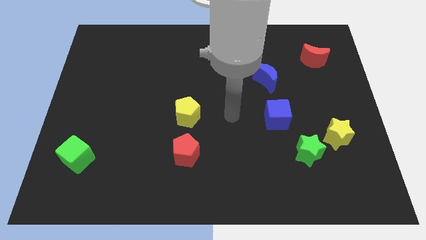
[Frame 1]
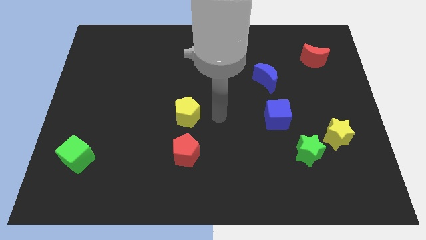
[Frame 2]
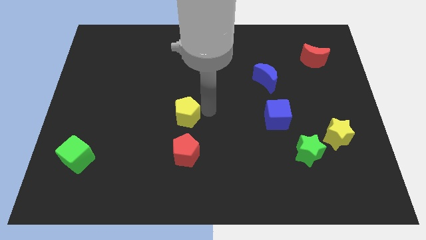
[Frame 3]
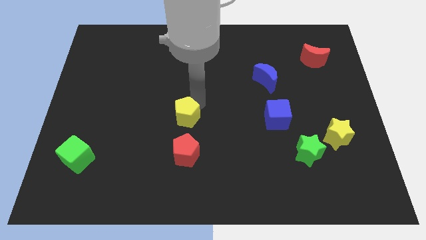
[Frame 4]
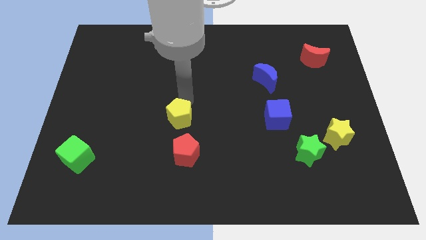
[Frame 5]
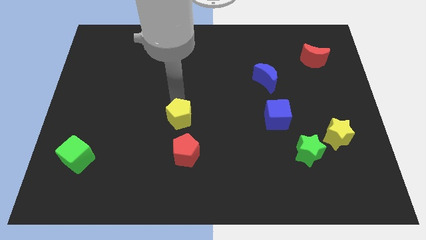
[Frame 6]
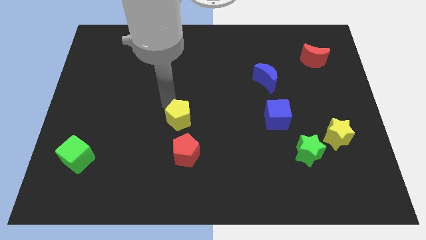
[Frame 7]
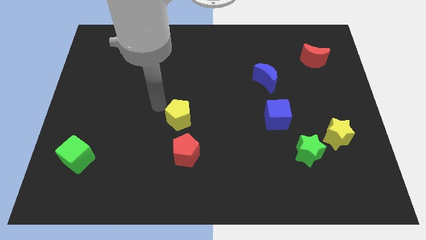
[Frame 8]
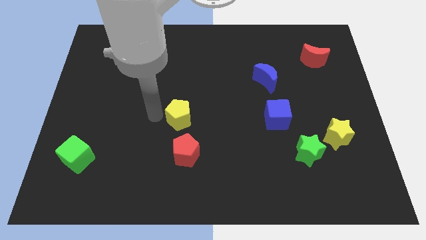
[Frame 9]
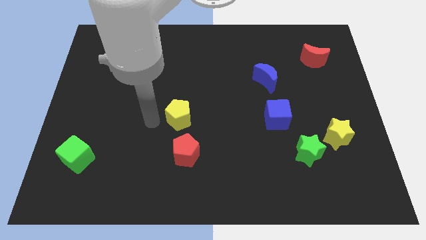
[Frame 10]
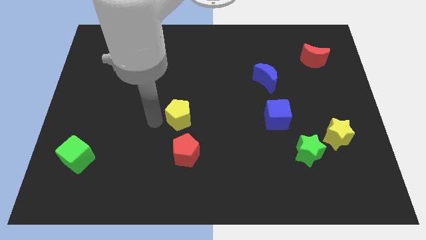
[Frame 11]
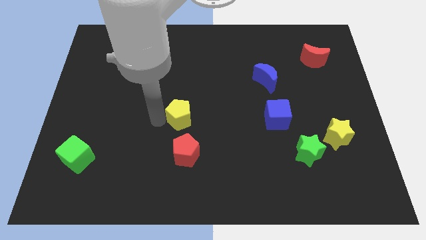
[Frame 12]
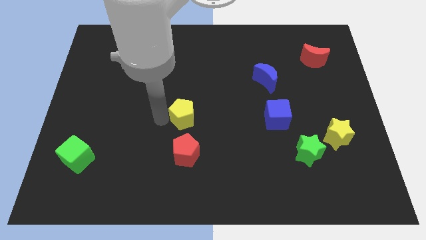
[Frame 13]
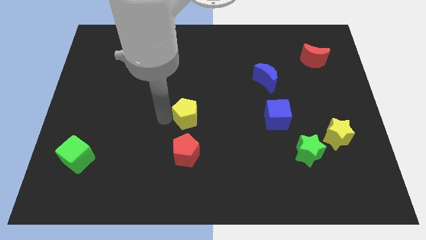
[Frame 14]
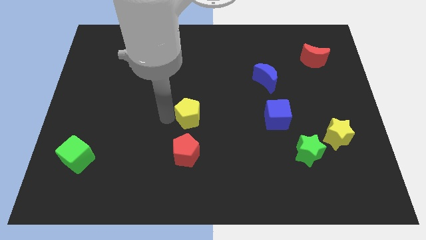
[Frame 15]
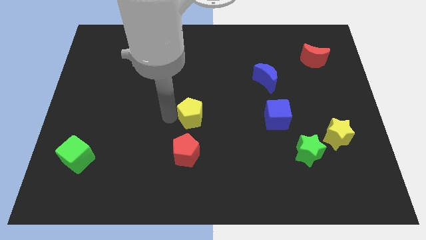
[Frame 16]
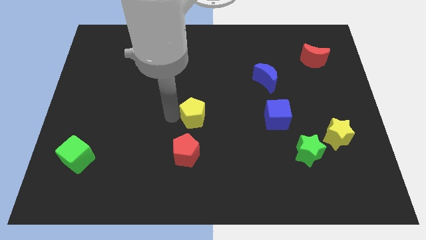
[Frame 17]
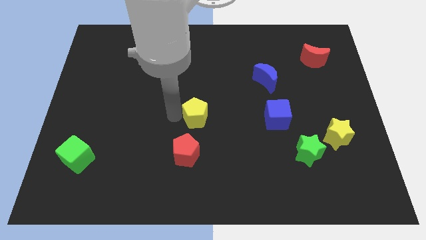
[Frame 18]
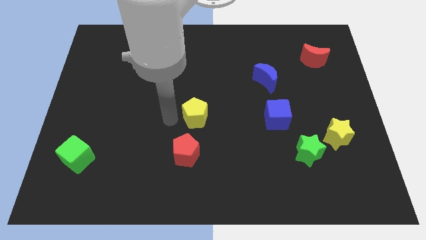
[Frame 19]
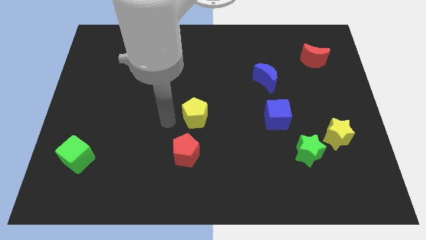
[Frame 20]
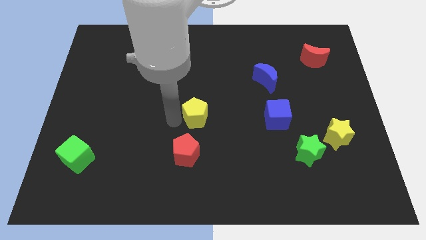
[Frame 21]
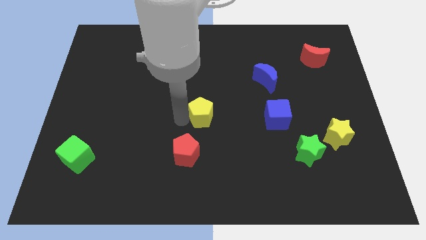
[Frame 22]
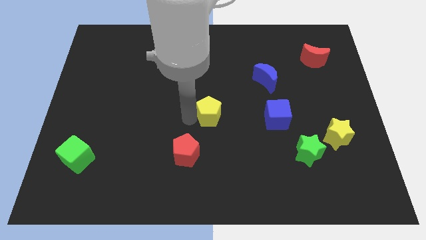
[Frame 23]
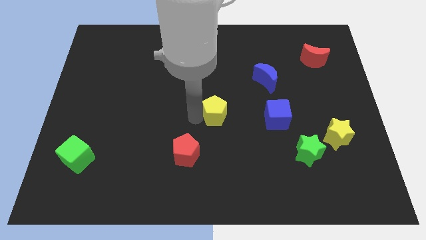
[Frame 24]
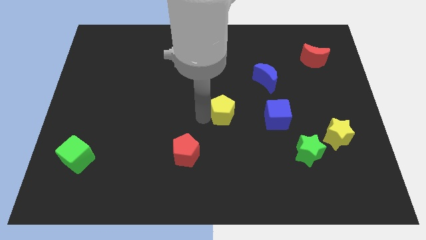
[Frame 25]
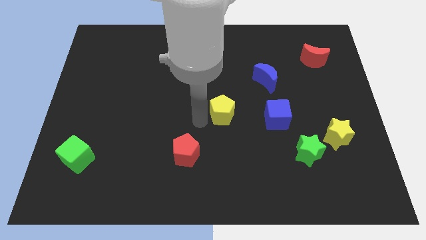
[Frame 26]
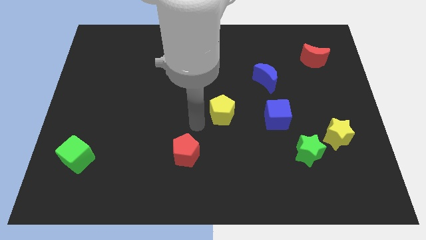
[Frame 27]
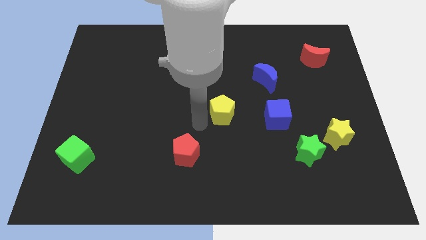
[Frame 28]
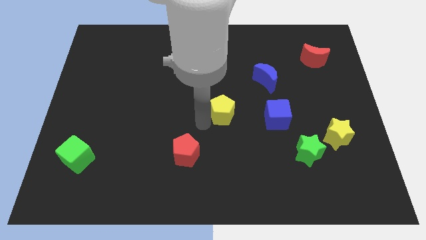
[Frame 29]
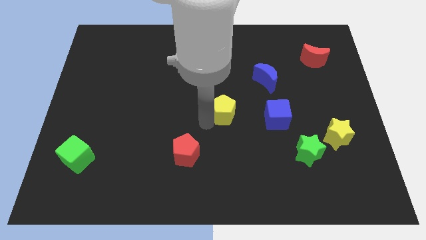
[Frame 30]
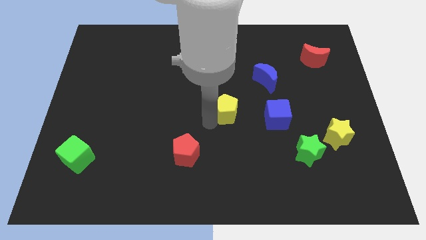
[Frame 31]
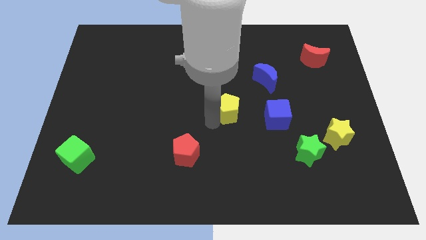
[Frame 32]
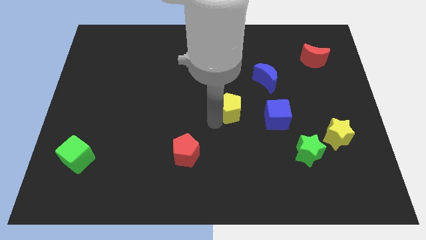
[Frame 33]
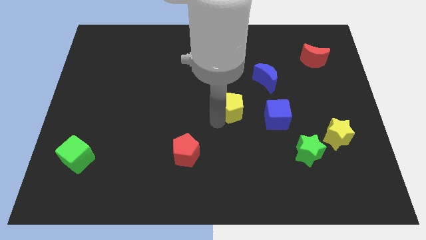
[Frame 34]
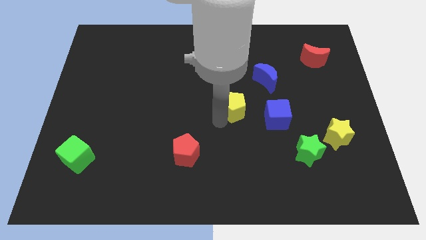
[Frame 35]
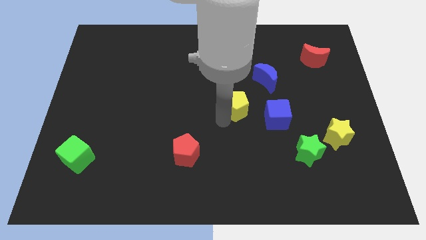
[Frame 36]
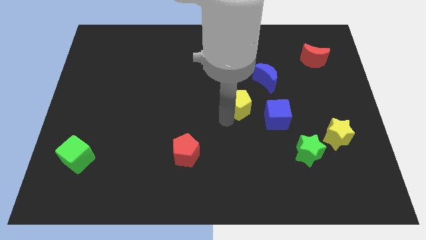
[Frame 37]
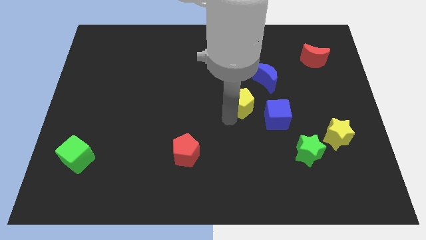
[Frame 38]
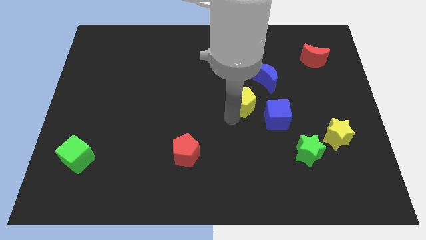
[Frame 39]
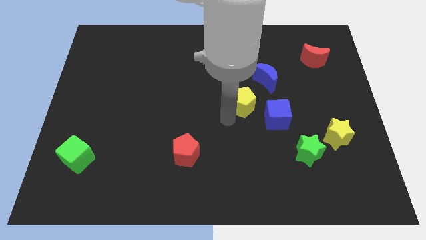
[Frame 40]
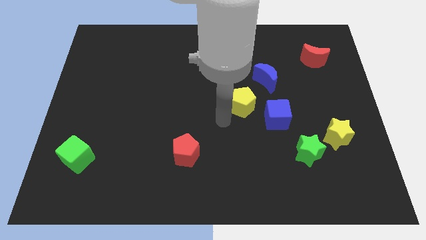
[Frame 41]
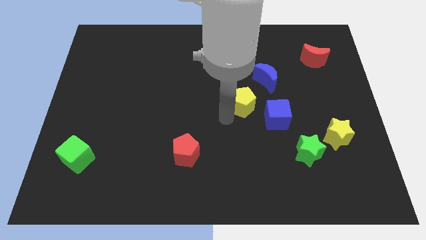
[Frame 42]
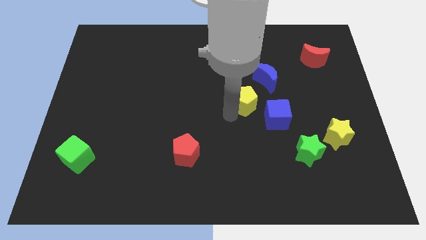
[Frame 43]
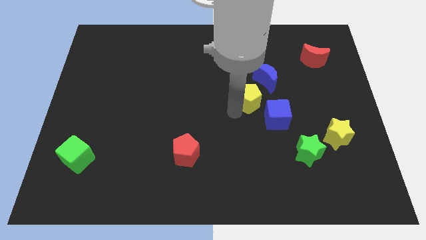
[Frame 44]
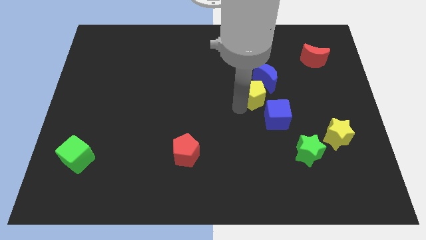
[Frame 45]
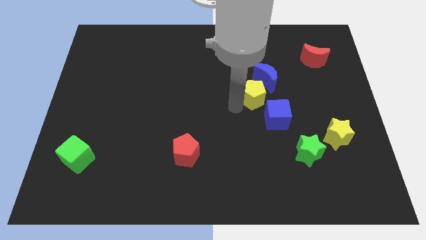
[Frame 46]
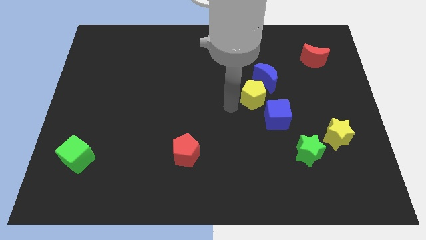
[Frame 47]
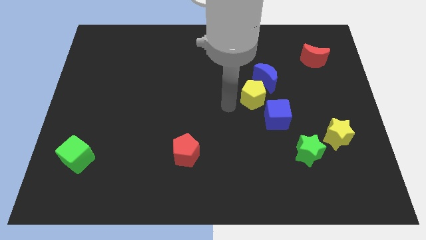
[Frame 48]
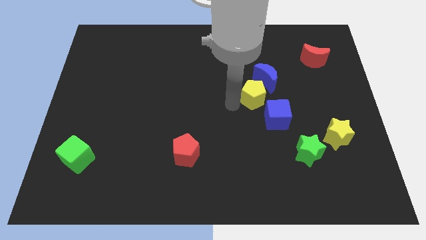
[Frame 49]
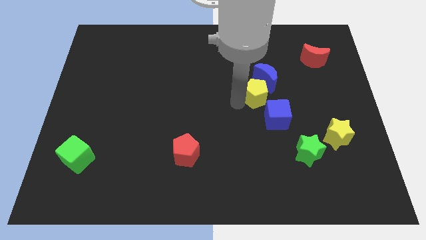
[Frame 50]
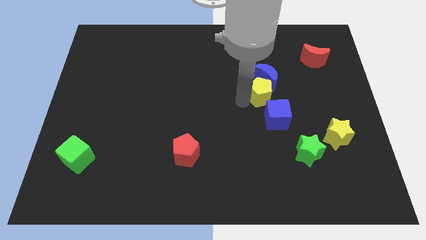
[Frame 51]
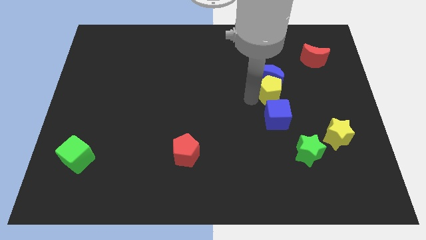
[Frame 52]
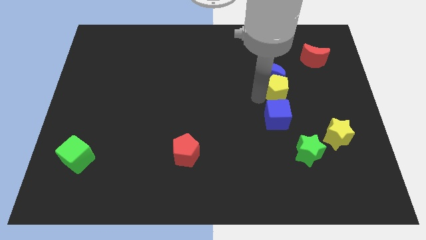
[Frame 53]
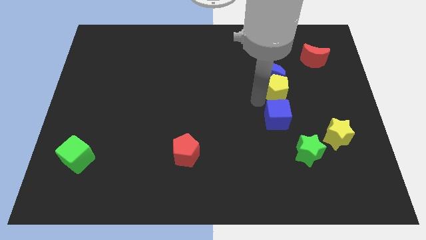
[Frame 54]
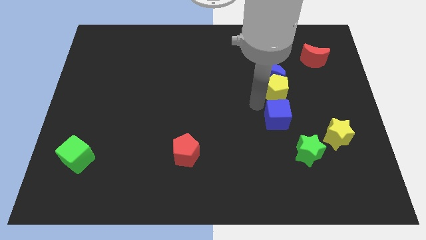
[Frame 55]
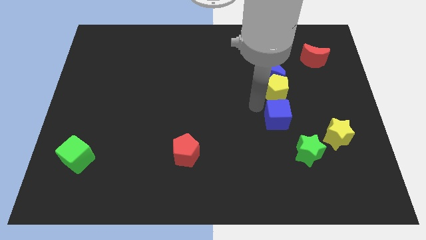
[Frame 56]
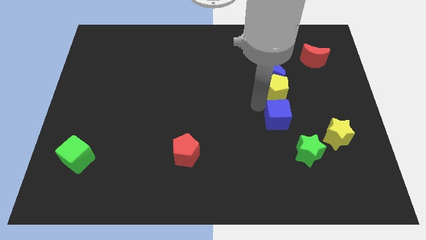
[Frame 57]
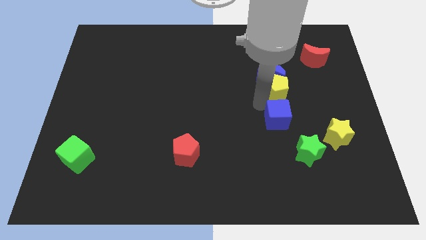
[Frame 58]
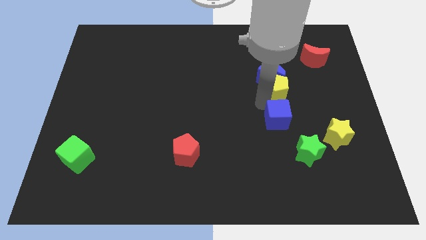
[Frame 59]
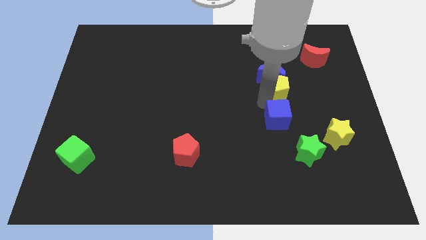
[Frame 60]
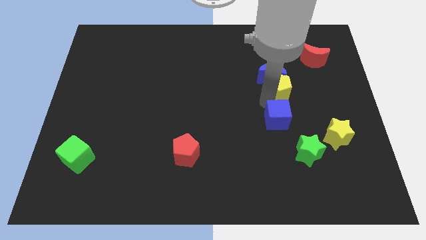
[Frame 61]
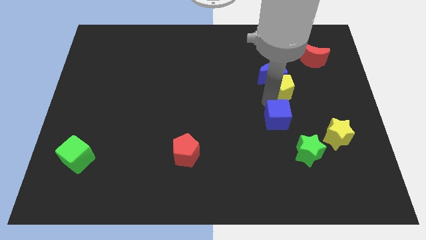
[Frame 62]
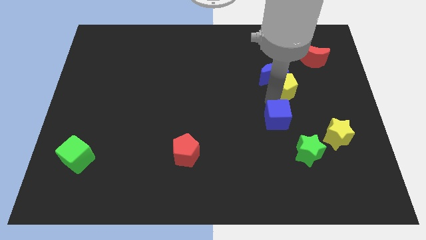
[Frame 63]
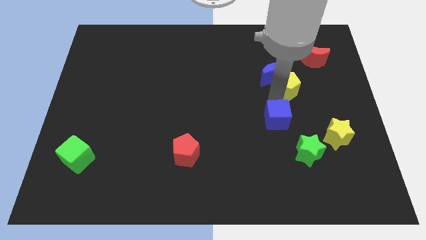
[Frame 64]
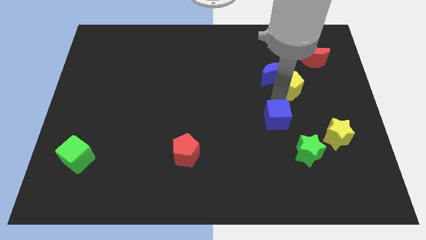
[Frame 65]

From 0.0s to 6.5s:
move the yellow pentagon diagonally down and to the left of the red moon
